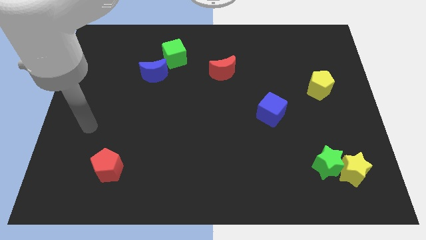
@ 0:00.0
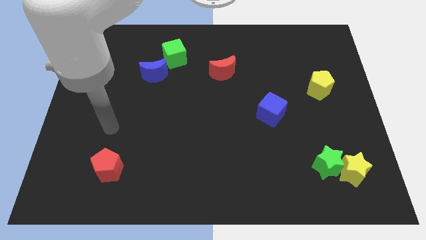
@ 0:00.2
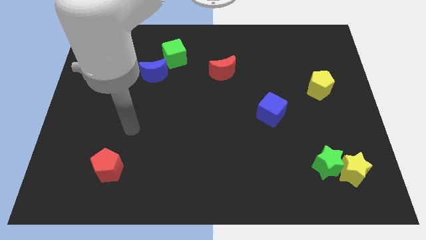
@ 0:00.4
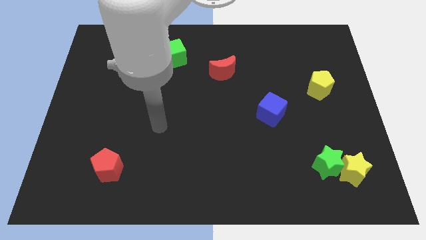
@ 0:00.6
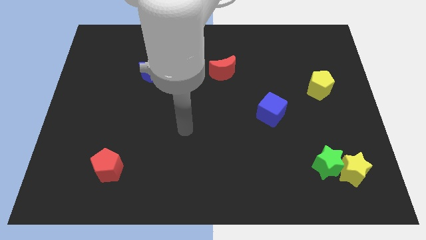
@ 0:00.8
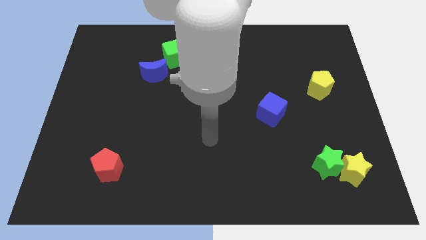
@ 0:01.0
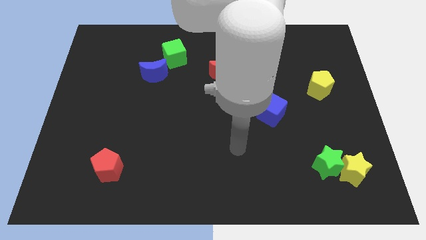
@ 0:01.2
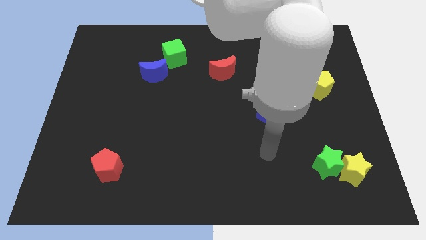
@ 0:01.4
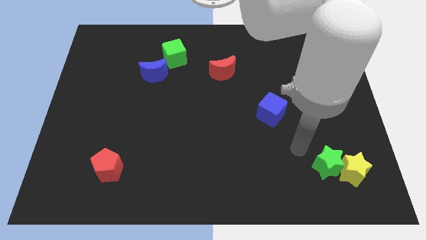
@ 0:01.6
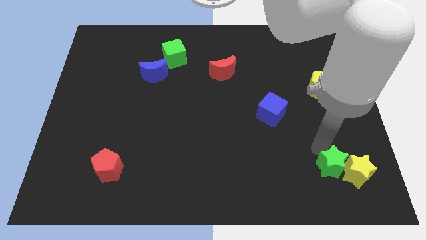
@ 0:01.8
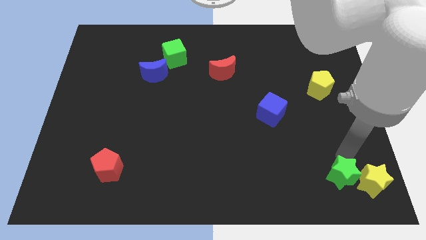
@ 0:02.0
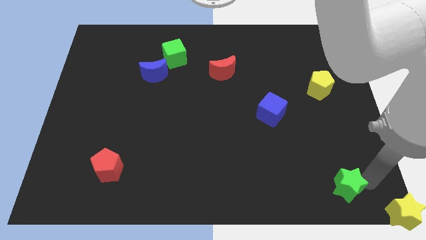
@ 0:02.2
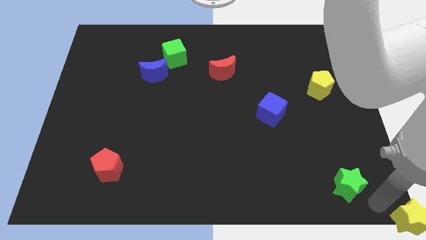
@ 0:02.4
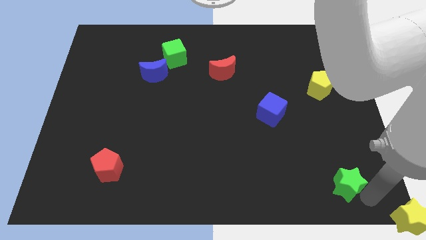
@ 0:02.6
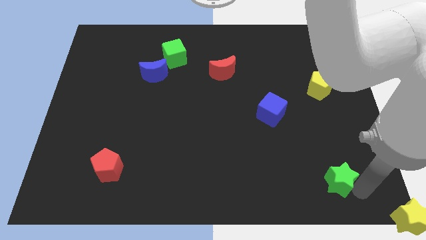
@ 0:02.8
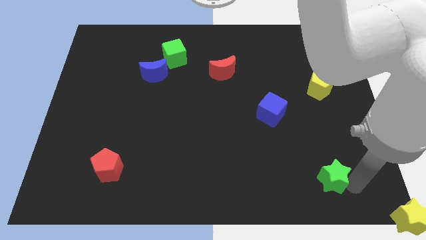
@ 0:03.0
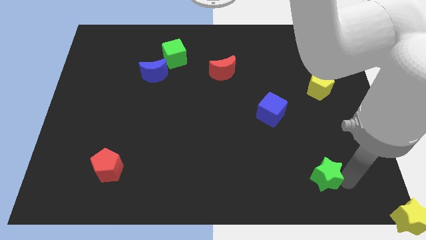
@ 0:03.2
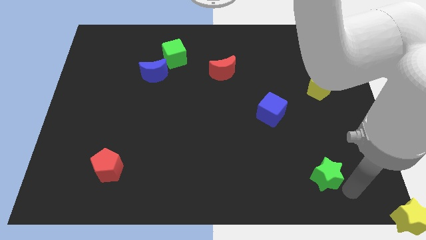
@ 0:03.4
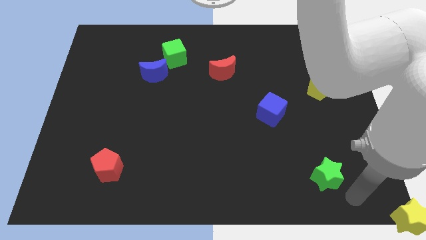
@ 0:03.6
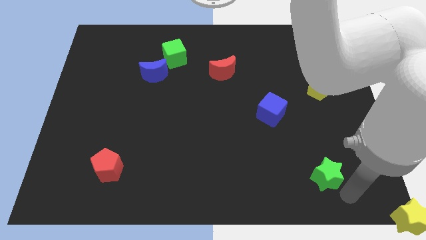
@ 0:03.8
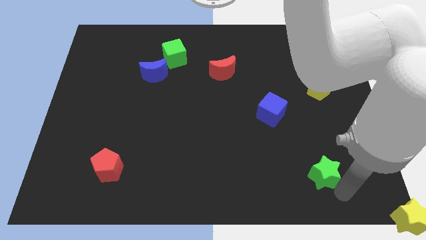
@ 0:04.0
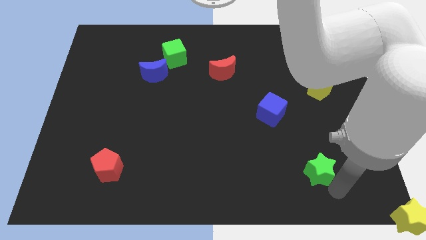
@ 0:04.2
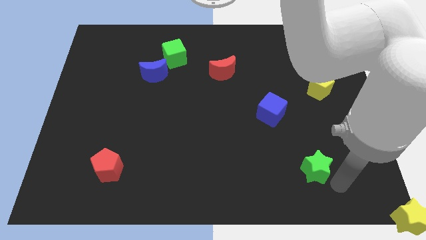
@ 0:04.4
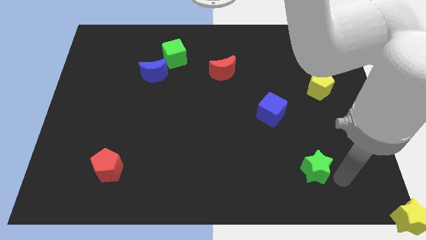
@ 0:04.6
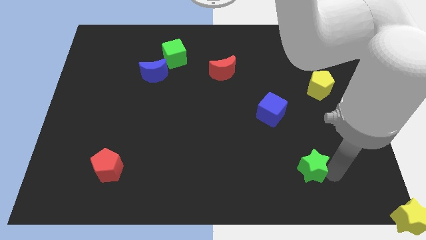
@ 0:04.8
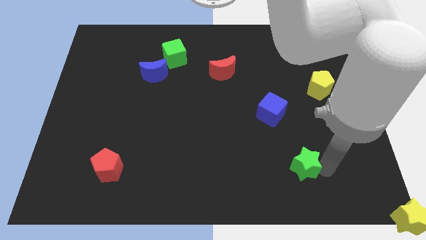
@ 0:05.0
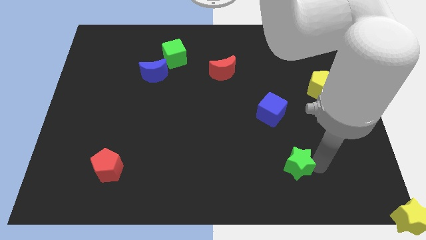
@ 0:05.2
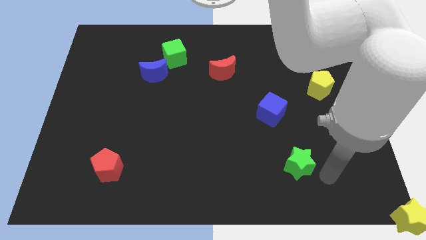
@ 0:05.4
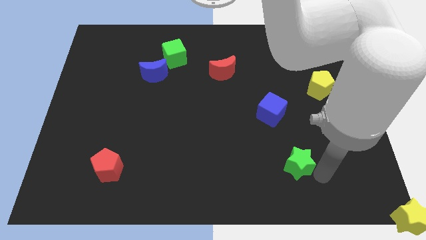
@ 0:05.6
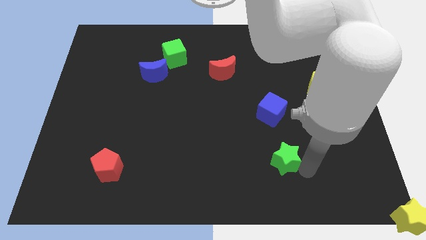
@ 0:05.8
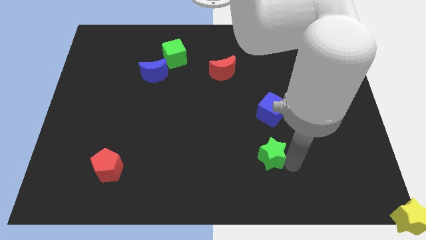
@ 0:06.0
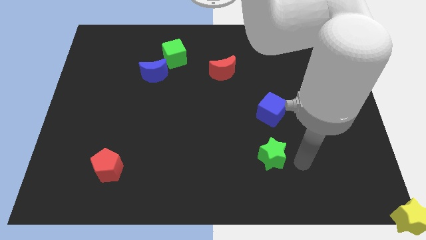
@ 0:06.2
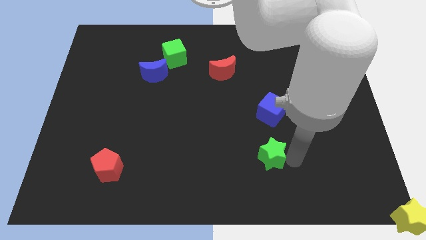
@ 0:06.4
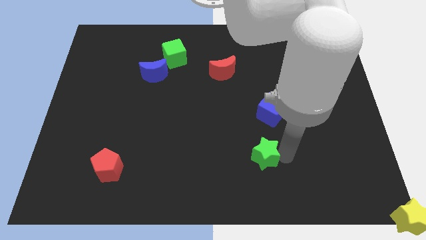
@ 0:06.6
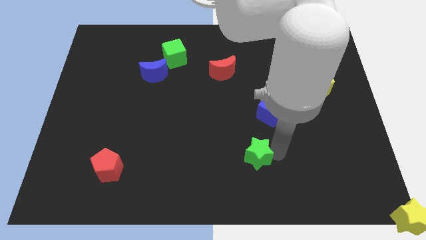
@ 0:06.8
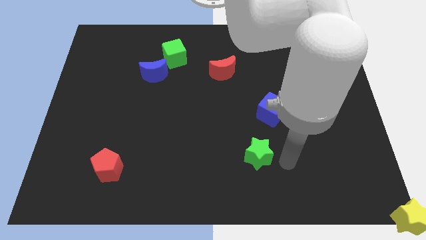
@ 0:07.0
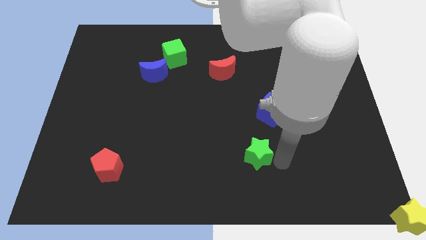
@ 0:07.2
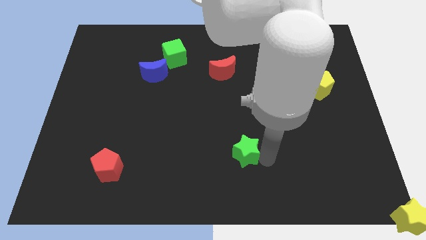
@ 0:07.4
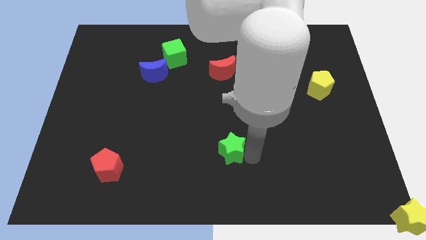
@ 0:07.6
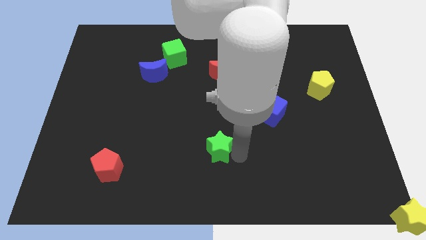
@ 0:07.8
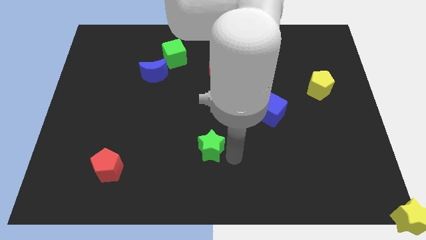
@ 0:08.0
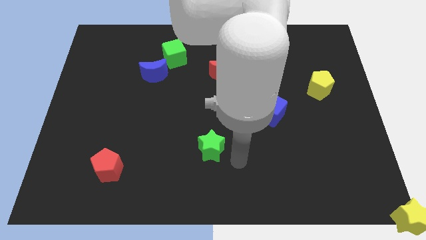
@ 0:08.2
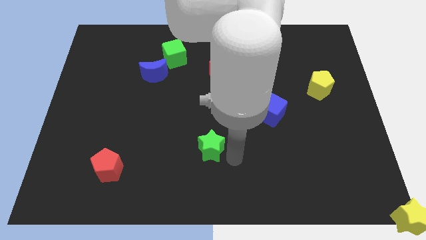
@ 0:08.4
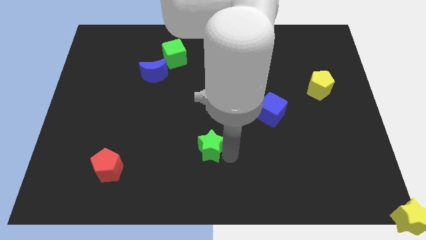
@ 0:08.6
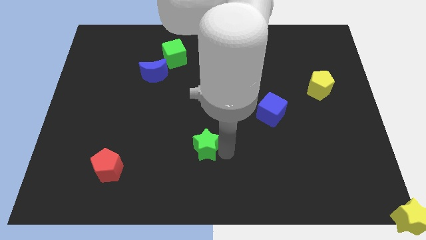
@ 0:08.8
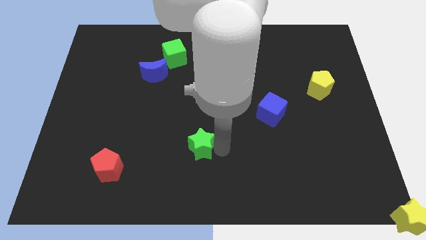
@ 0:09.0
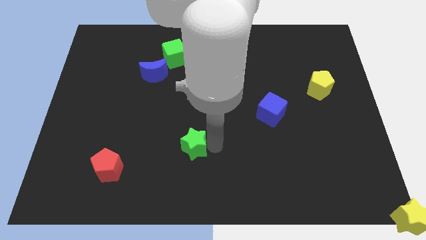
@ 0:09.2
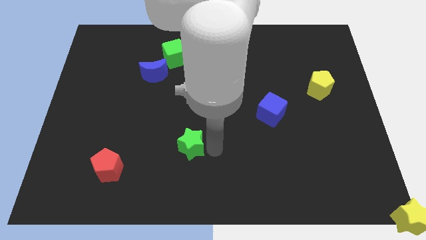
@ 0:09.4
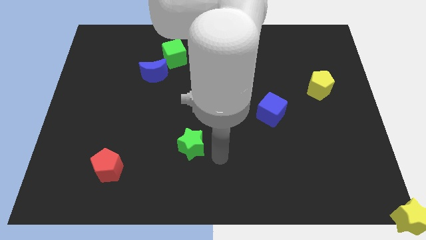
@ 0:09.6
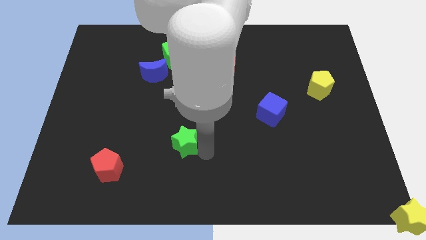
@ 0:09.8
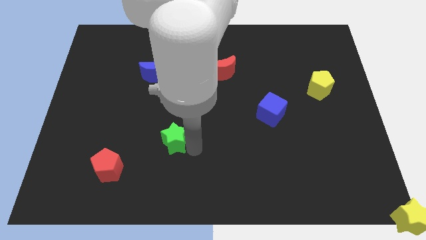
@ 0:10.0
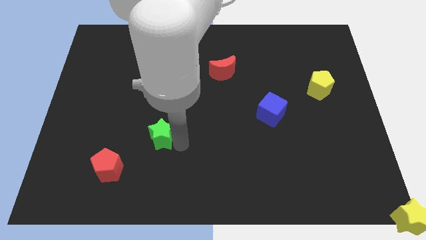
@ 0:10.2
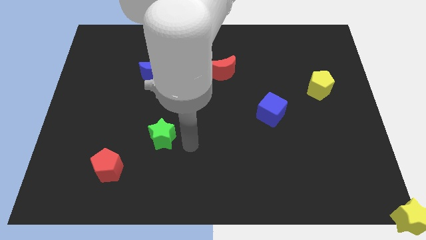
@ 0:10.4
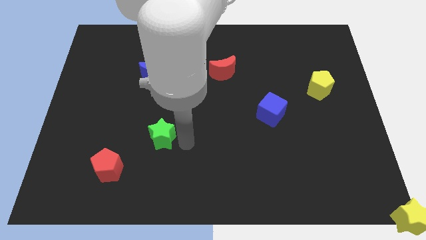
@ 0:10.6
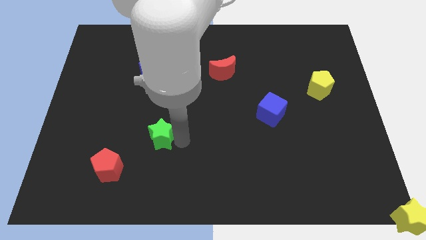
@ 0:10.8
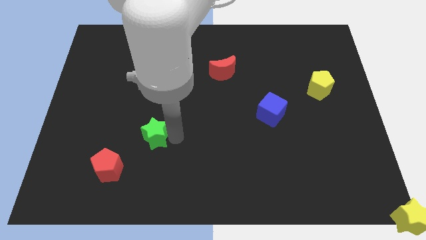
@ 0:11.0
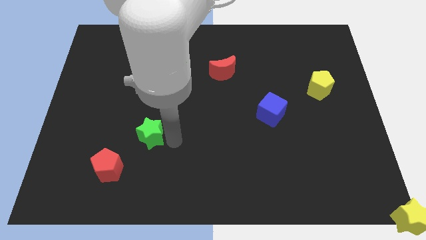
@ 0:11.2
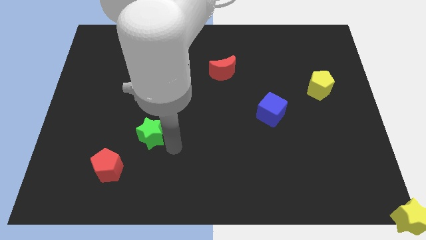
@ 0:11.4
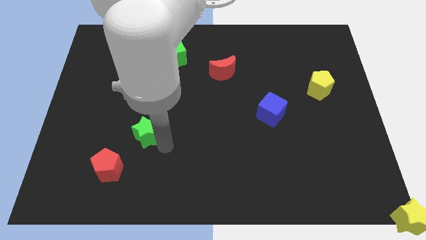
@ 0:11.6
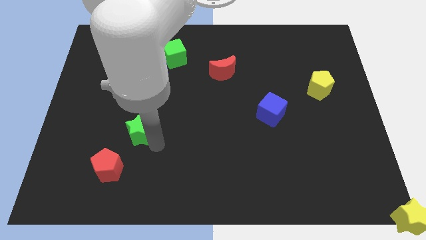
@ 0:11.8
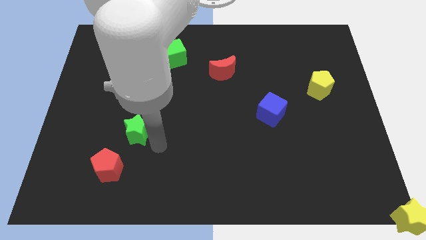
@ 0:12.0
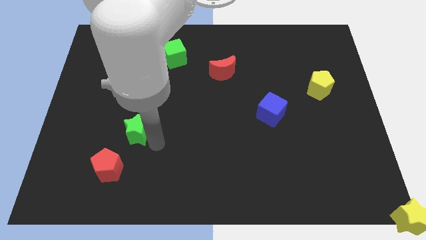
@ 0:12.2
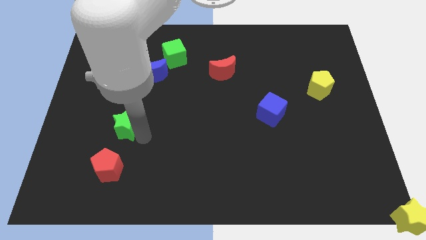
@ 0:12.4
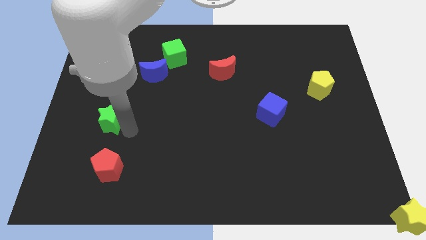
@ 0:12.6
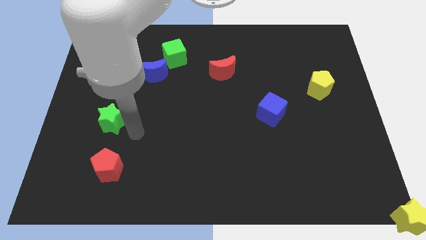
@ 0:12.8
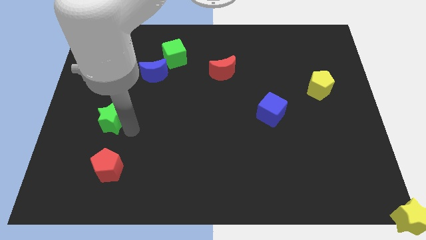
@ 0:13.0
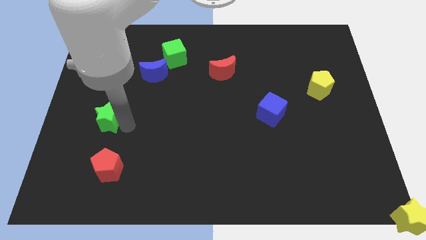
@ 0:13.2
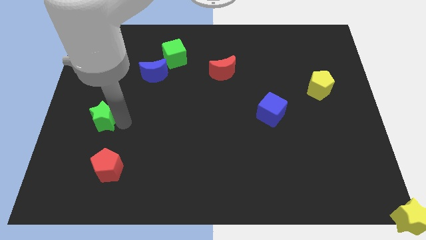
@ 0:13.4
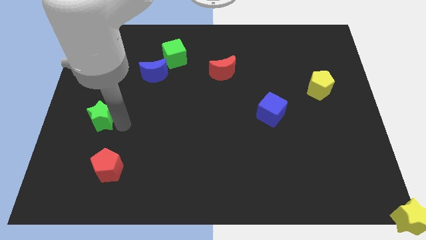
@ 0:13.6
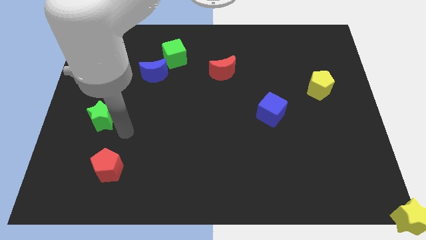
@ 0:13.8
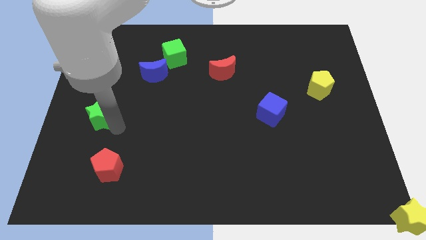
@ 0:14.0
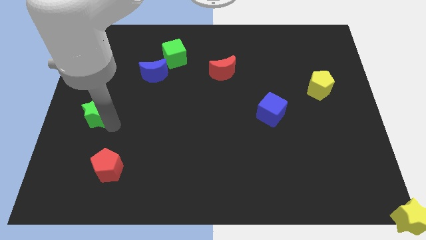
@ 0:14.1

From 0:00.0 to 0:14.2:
slide the green star to the center left
